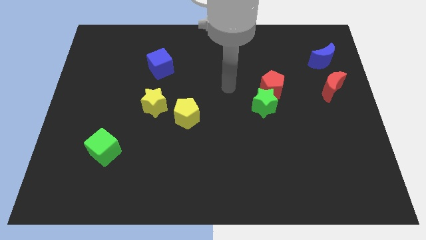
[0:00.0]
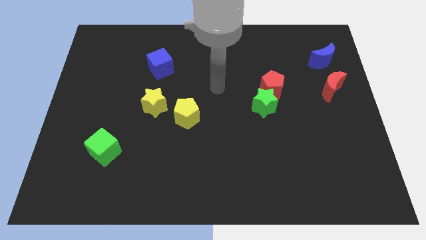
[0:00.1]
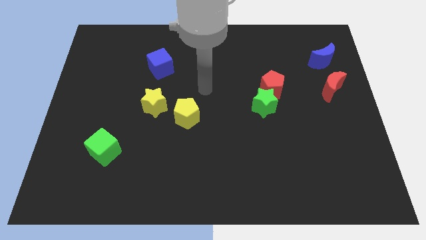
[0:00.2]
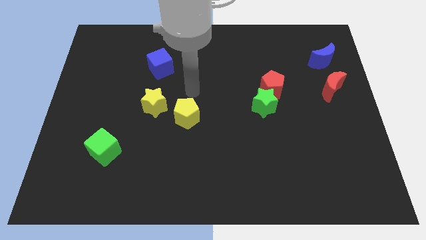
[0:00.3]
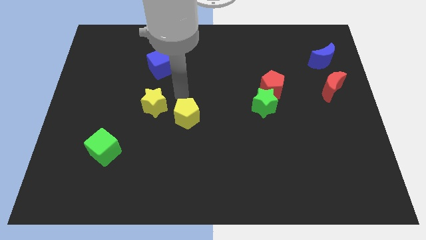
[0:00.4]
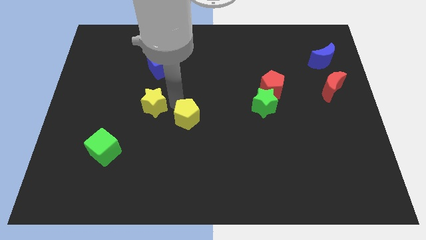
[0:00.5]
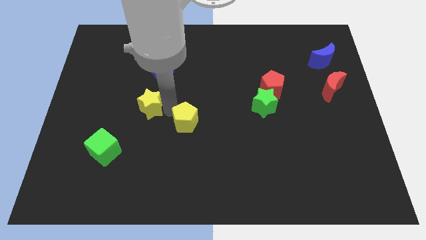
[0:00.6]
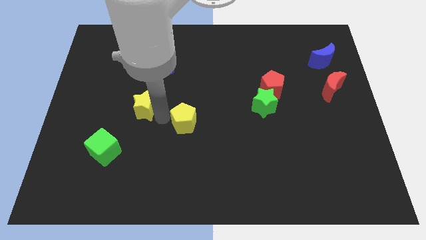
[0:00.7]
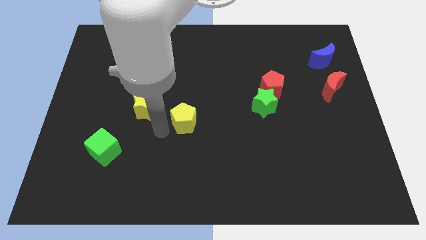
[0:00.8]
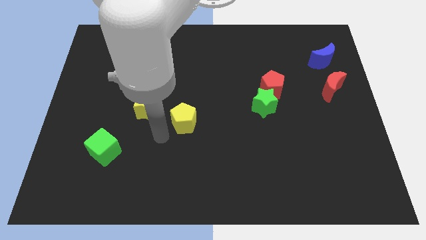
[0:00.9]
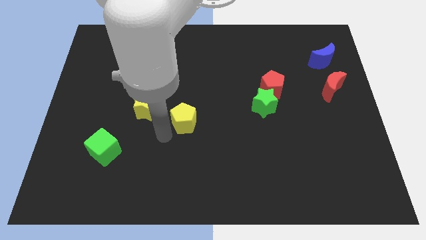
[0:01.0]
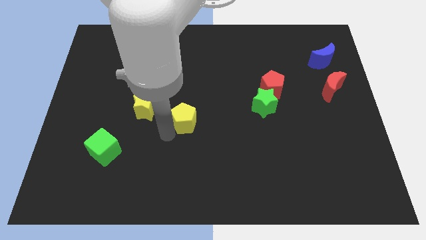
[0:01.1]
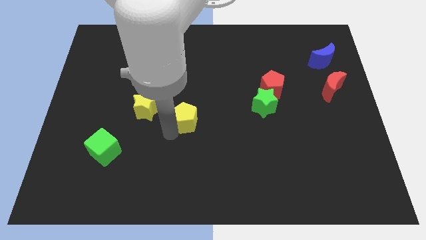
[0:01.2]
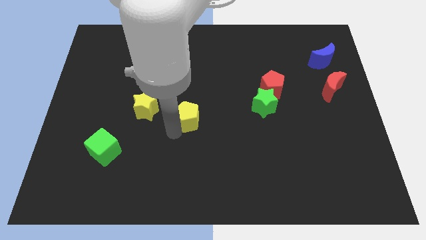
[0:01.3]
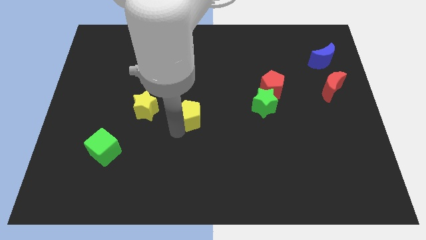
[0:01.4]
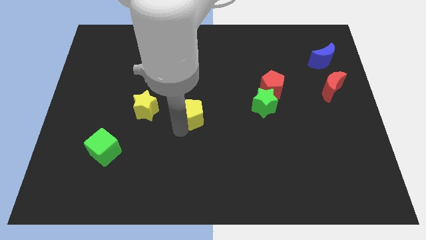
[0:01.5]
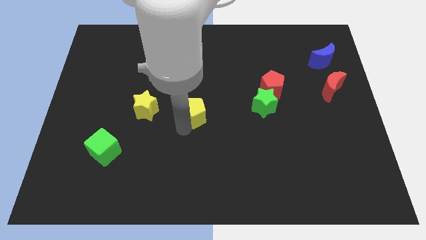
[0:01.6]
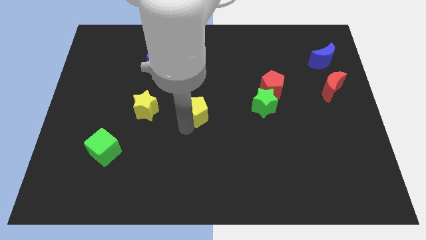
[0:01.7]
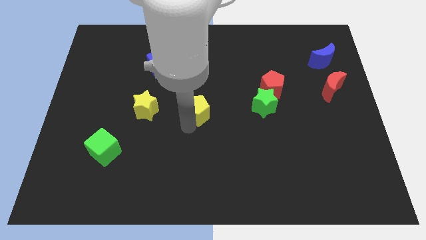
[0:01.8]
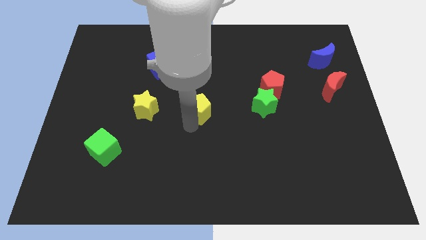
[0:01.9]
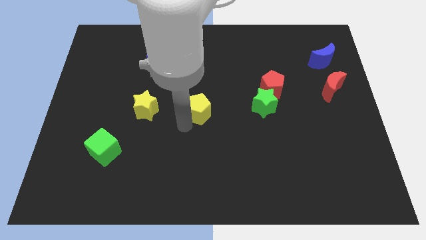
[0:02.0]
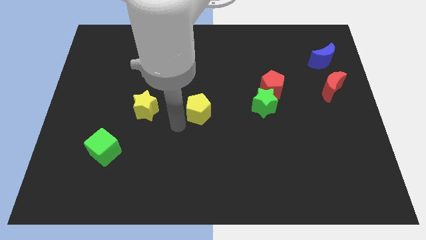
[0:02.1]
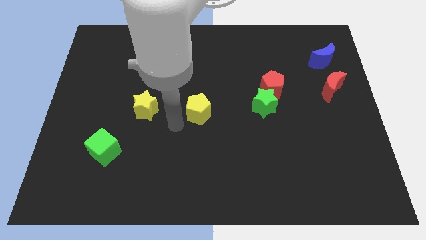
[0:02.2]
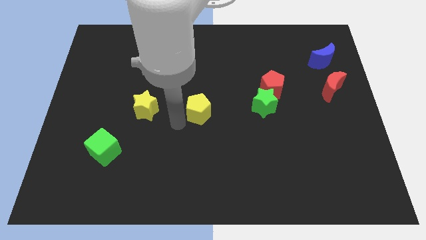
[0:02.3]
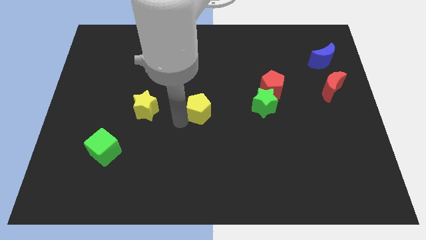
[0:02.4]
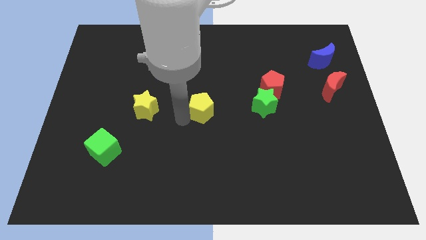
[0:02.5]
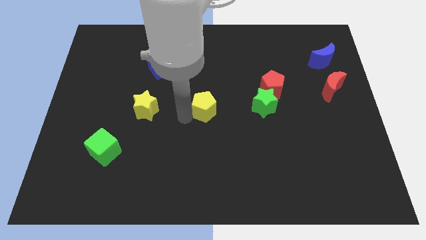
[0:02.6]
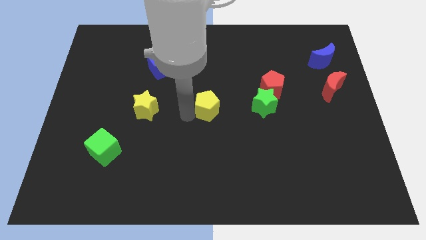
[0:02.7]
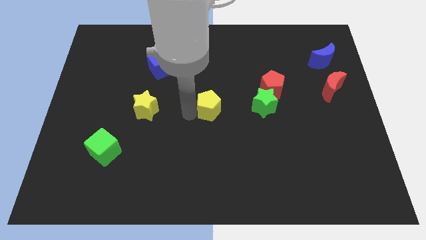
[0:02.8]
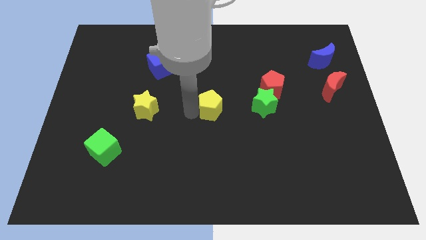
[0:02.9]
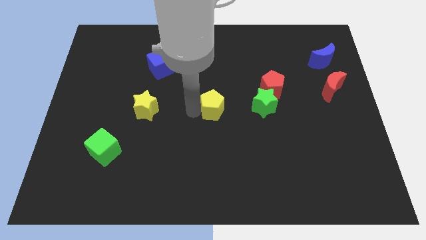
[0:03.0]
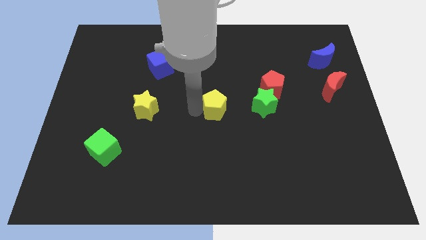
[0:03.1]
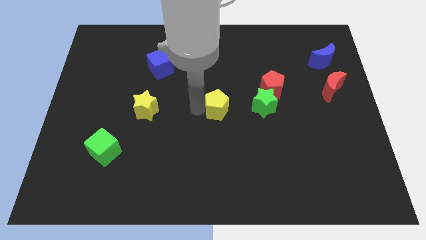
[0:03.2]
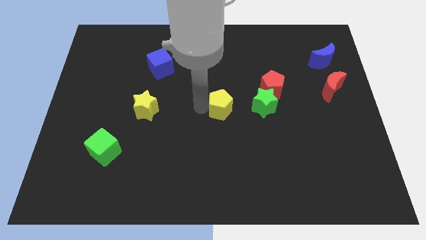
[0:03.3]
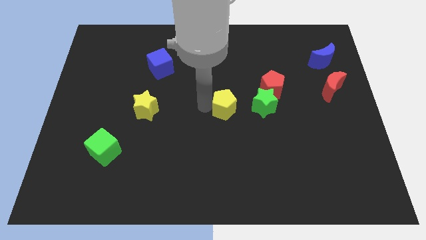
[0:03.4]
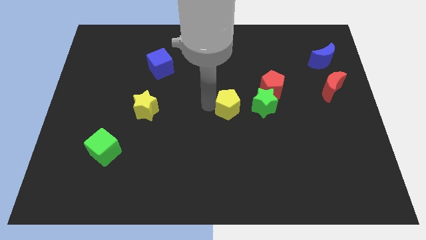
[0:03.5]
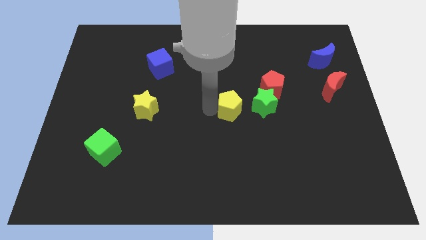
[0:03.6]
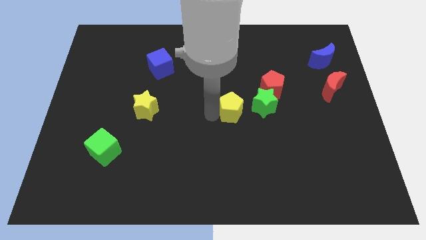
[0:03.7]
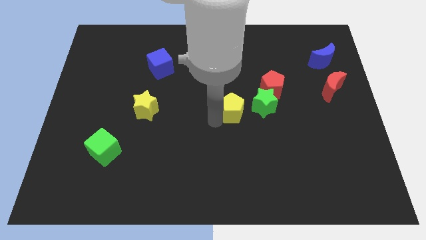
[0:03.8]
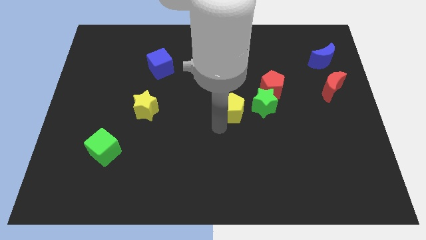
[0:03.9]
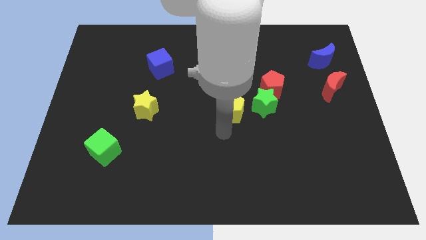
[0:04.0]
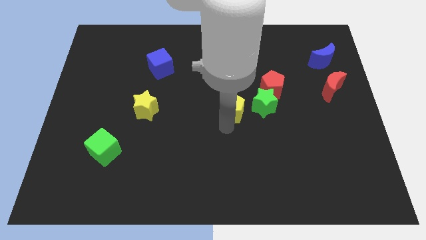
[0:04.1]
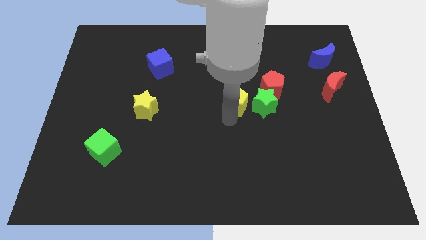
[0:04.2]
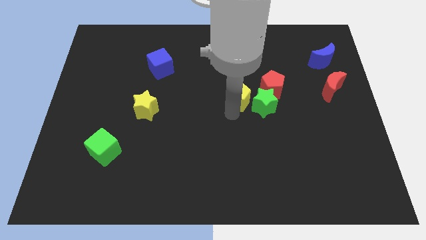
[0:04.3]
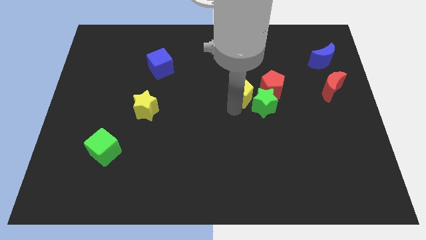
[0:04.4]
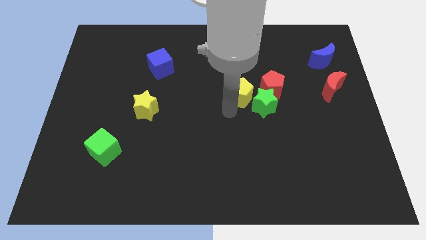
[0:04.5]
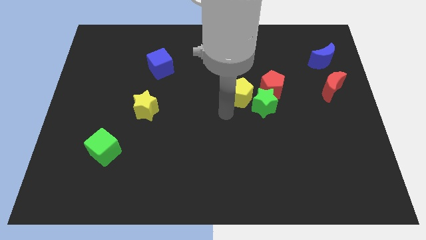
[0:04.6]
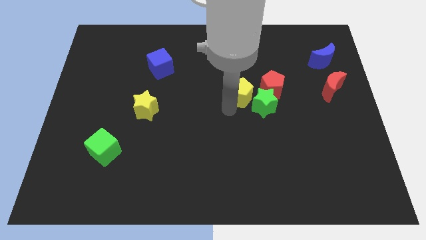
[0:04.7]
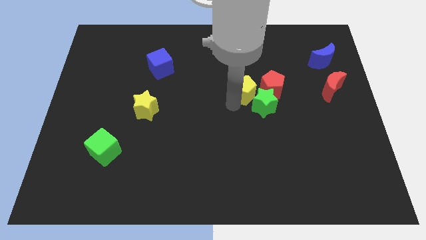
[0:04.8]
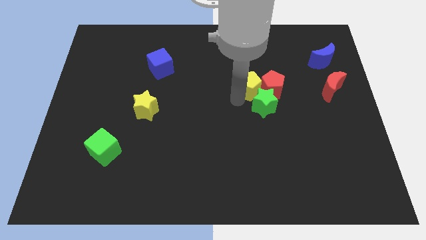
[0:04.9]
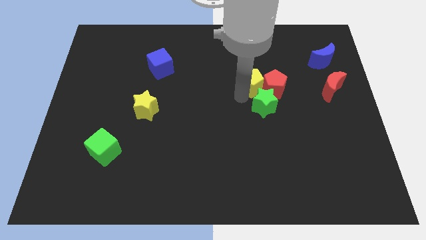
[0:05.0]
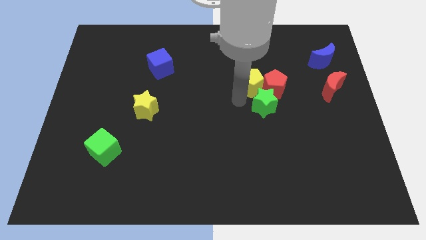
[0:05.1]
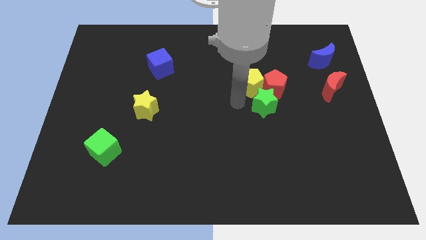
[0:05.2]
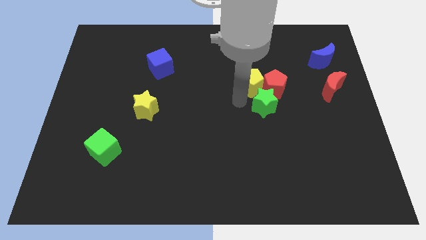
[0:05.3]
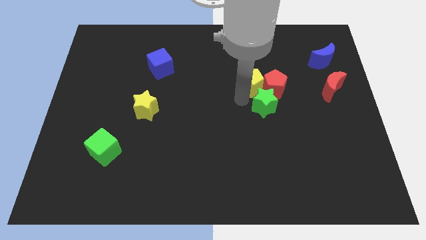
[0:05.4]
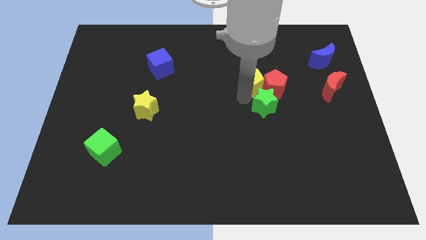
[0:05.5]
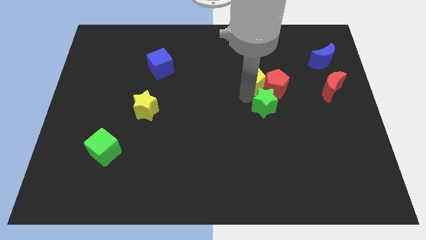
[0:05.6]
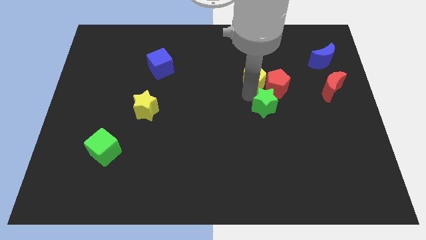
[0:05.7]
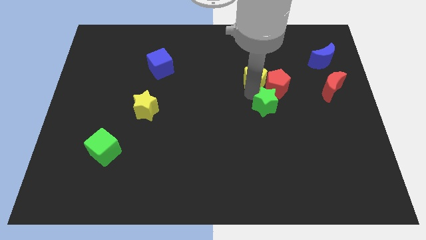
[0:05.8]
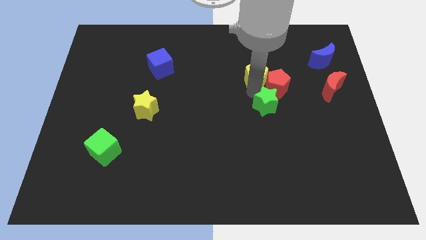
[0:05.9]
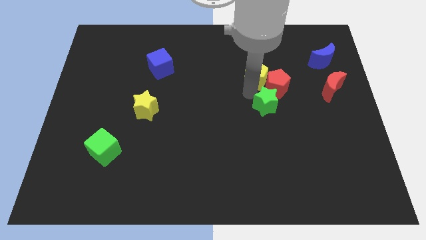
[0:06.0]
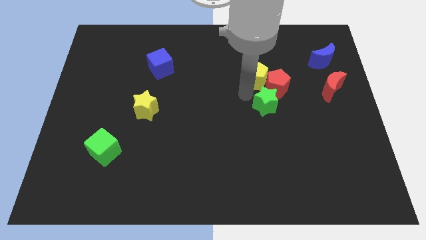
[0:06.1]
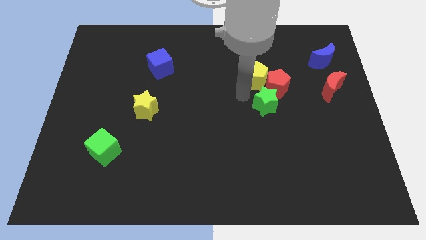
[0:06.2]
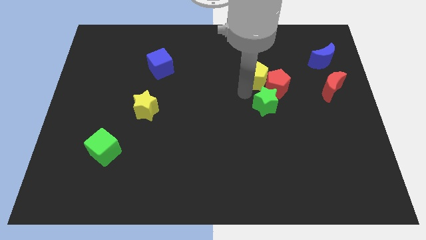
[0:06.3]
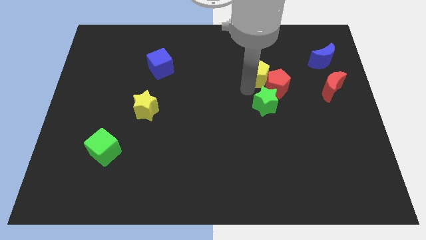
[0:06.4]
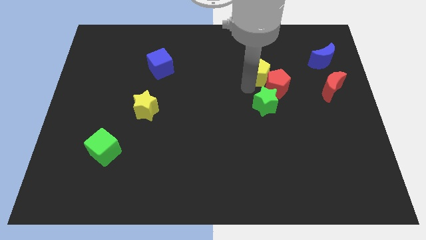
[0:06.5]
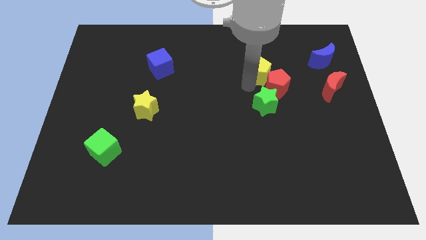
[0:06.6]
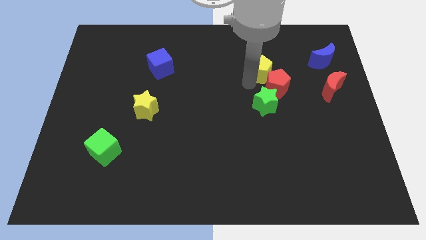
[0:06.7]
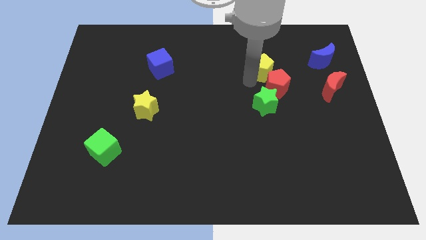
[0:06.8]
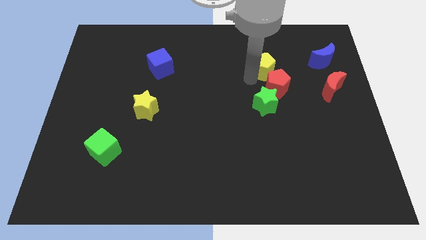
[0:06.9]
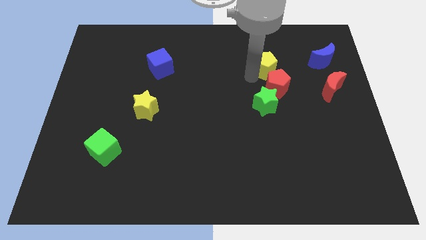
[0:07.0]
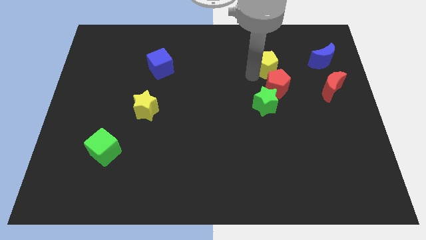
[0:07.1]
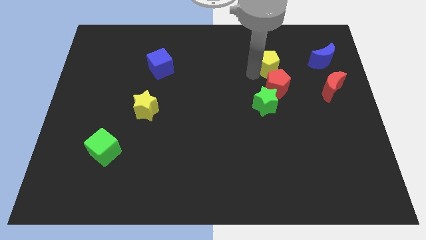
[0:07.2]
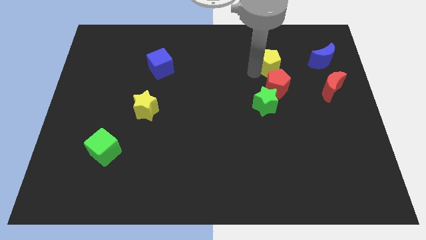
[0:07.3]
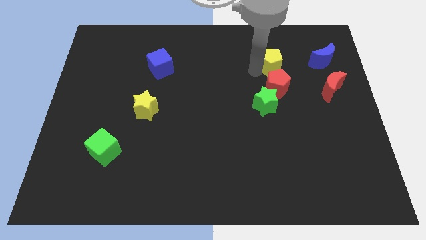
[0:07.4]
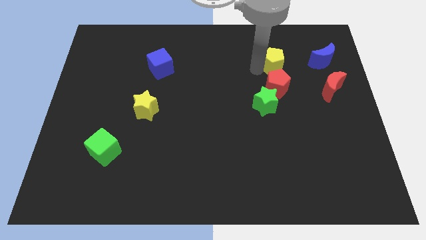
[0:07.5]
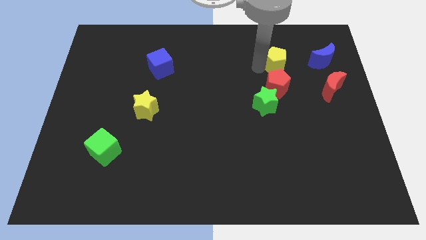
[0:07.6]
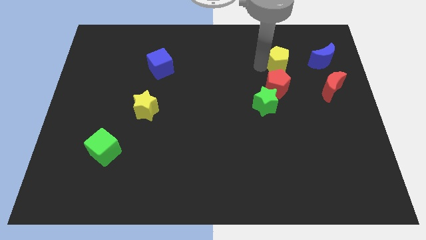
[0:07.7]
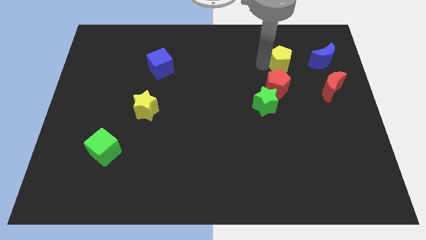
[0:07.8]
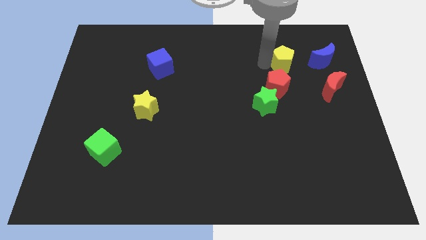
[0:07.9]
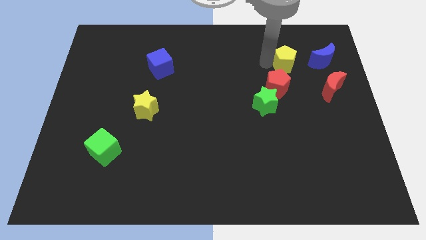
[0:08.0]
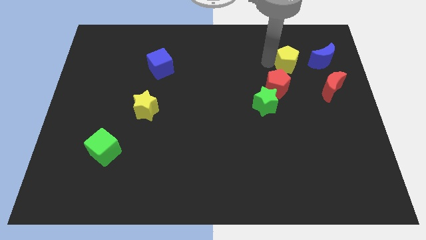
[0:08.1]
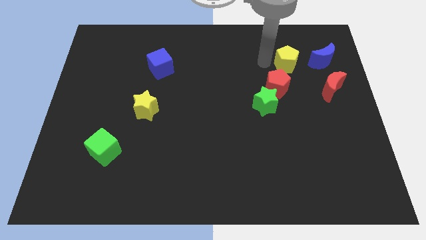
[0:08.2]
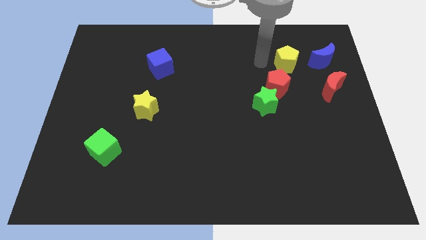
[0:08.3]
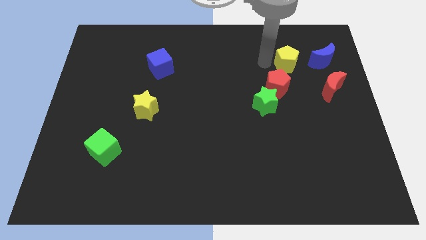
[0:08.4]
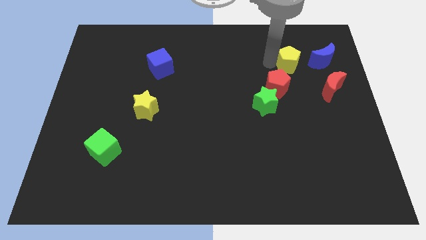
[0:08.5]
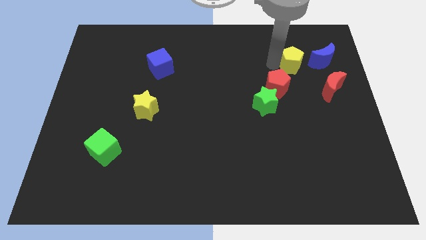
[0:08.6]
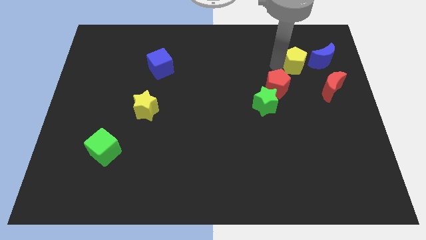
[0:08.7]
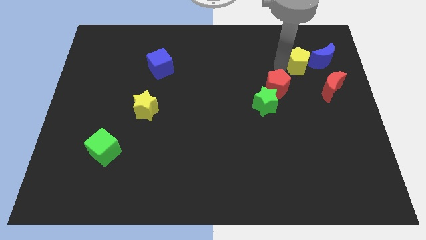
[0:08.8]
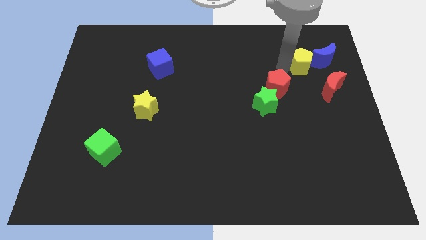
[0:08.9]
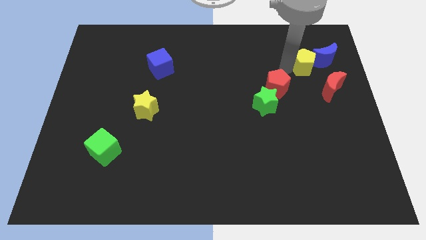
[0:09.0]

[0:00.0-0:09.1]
slide the yellow pentagon to the blue moon
